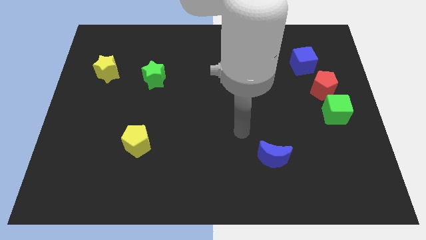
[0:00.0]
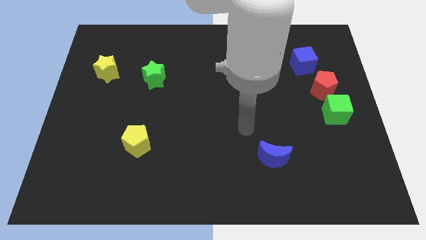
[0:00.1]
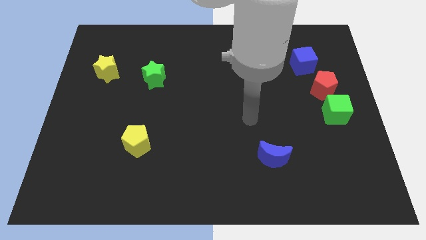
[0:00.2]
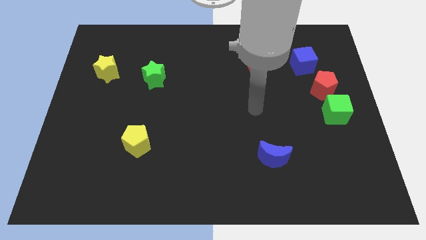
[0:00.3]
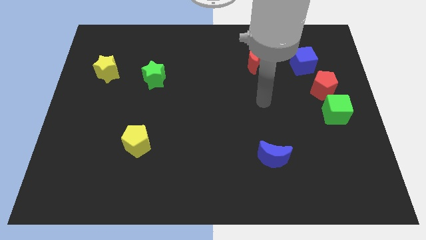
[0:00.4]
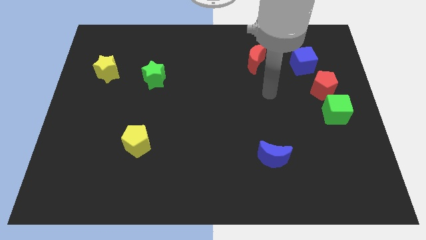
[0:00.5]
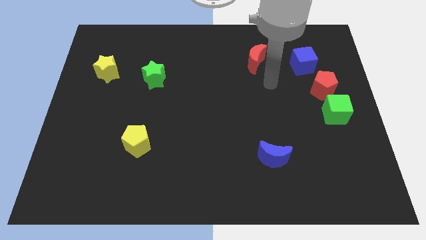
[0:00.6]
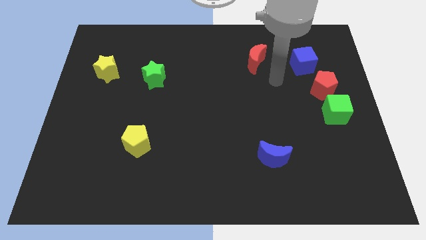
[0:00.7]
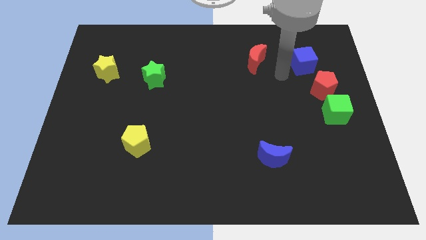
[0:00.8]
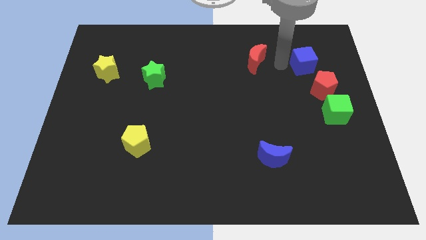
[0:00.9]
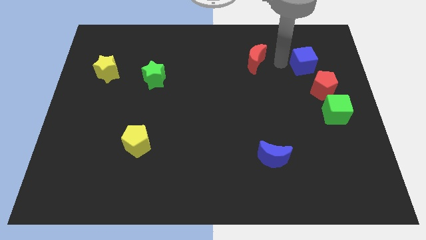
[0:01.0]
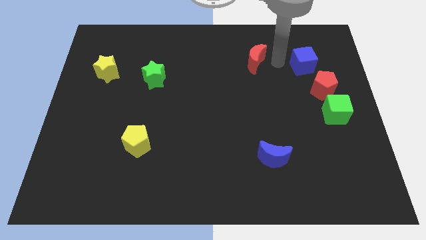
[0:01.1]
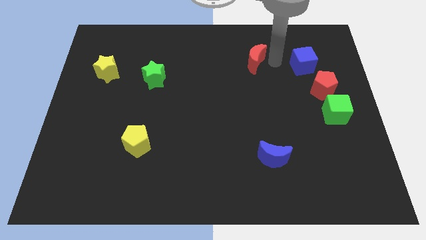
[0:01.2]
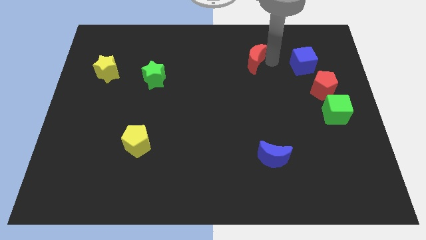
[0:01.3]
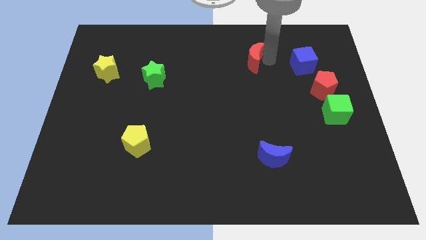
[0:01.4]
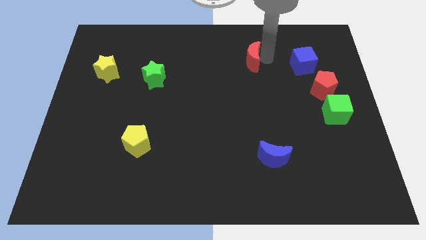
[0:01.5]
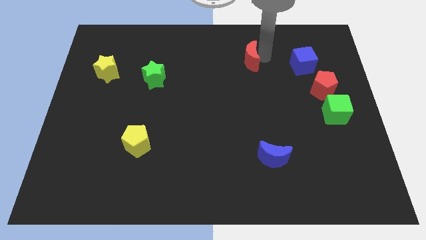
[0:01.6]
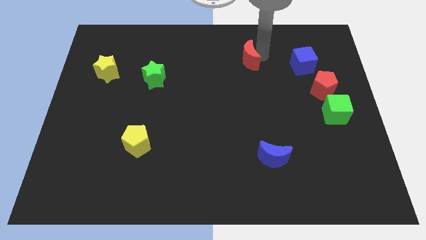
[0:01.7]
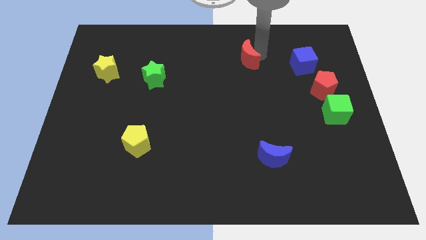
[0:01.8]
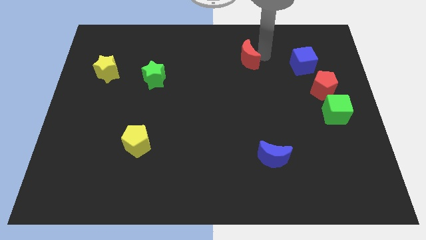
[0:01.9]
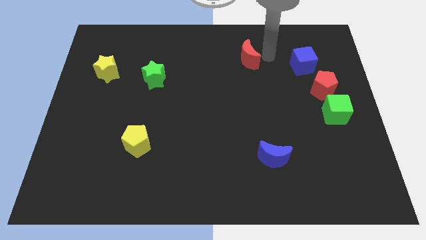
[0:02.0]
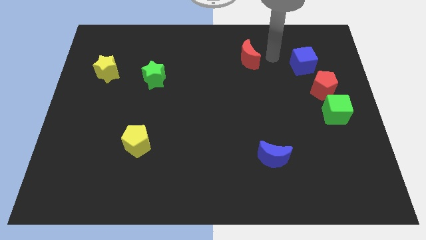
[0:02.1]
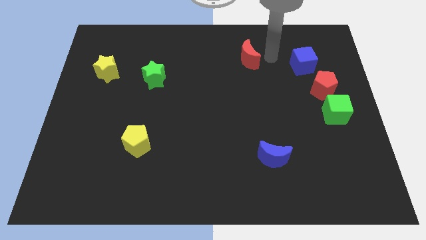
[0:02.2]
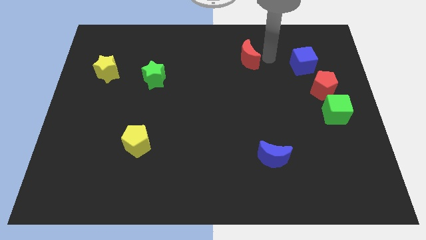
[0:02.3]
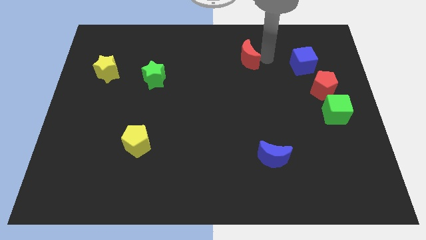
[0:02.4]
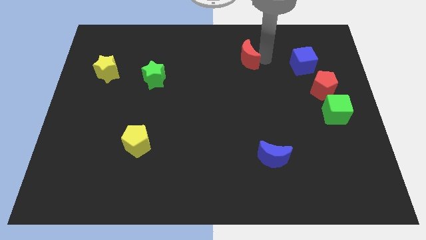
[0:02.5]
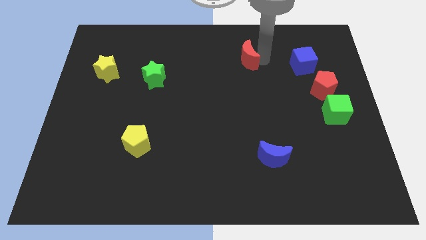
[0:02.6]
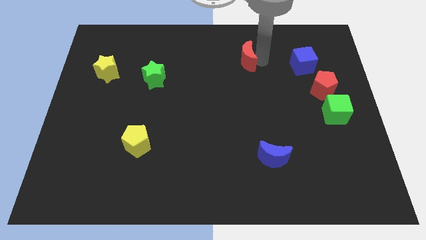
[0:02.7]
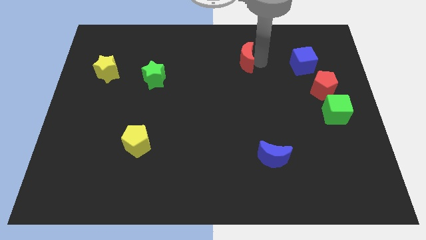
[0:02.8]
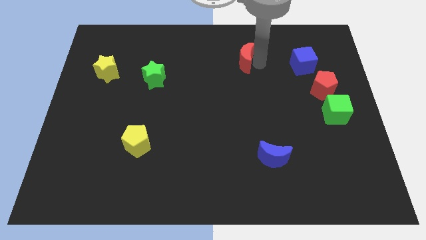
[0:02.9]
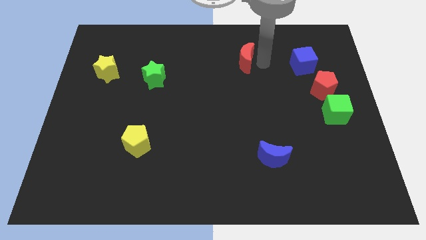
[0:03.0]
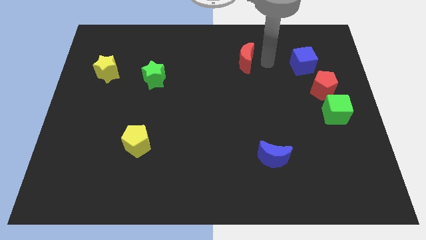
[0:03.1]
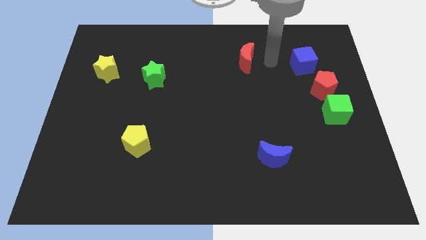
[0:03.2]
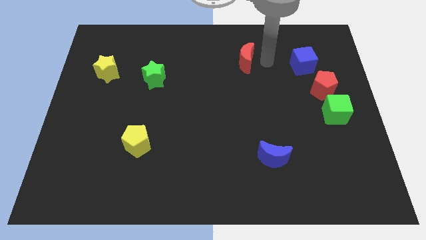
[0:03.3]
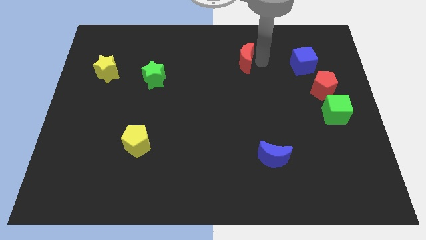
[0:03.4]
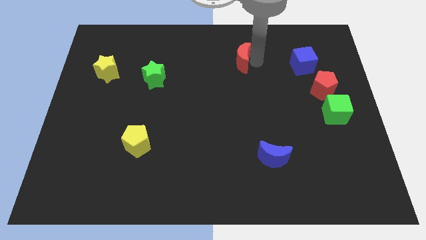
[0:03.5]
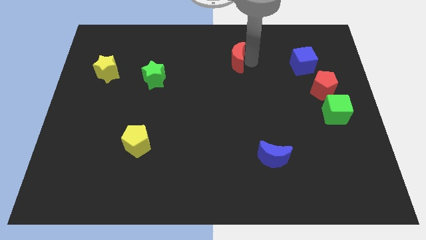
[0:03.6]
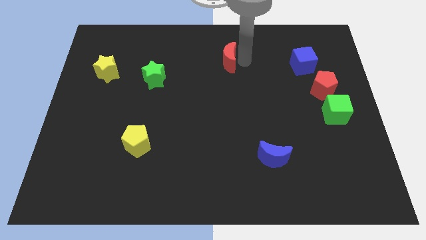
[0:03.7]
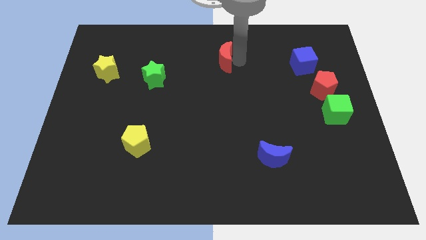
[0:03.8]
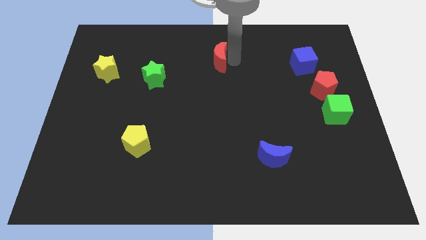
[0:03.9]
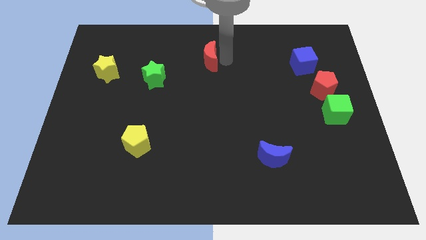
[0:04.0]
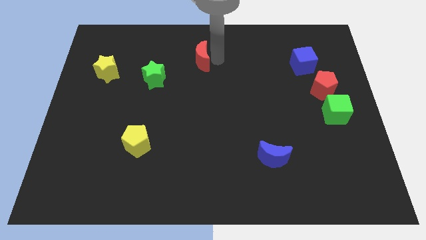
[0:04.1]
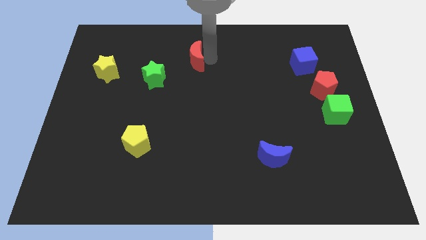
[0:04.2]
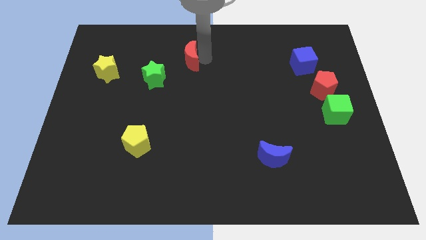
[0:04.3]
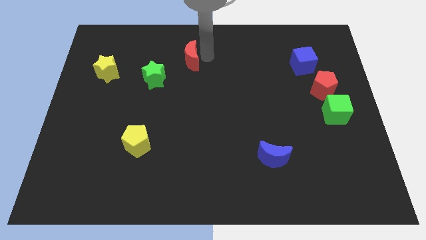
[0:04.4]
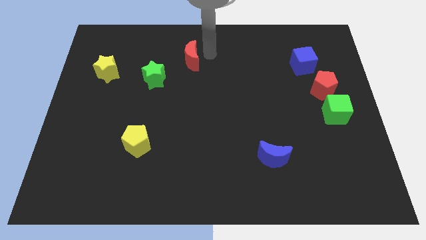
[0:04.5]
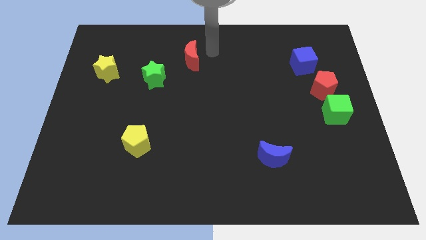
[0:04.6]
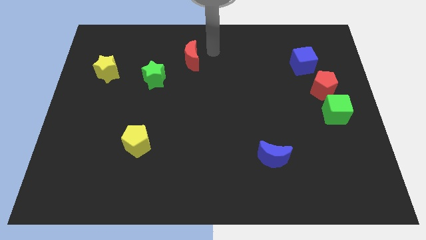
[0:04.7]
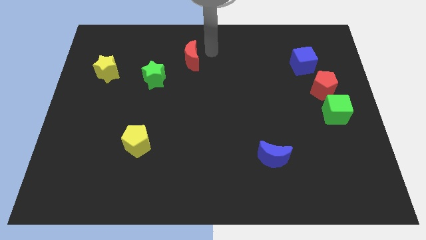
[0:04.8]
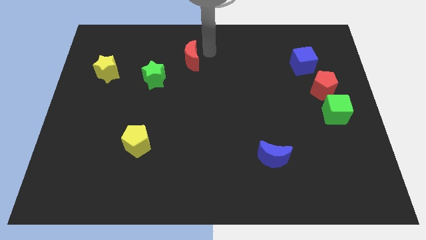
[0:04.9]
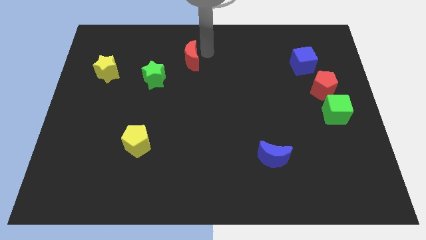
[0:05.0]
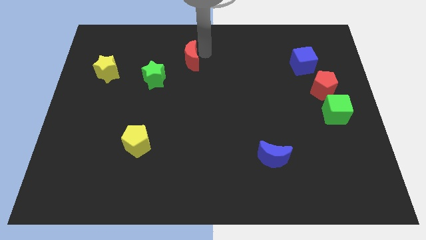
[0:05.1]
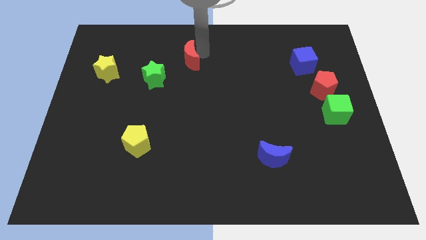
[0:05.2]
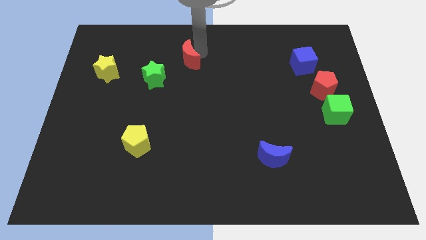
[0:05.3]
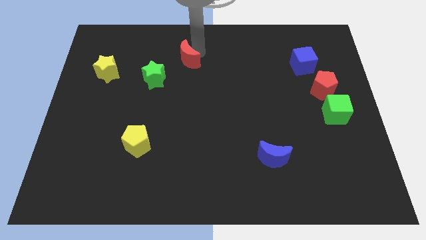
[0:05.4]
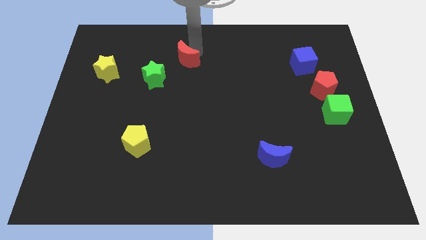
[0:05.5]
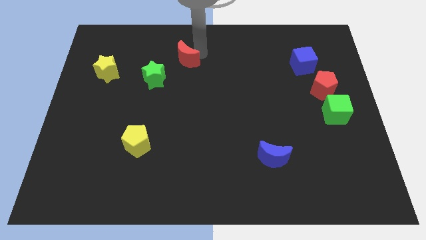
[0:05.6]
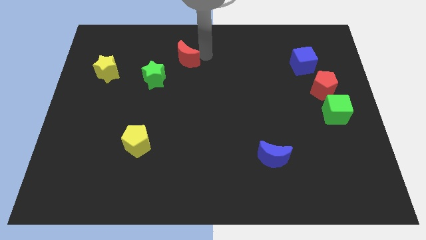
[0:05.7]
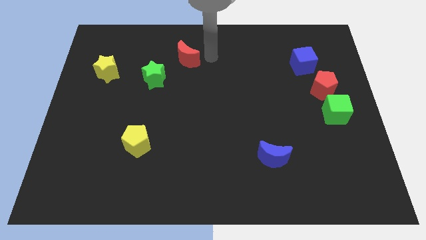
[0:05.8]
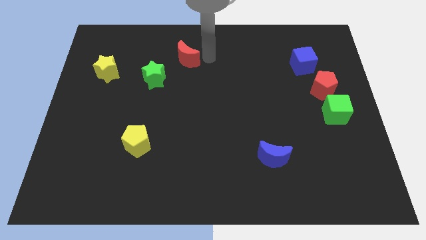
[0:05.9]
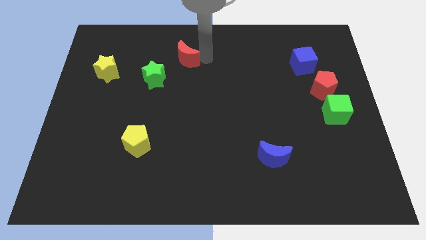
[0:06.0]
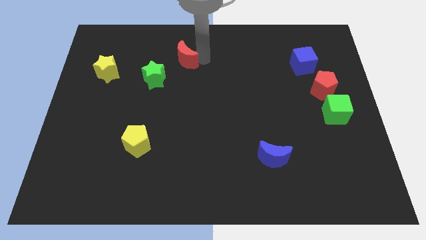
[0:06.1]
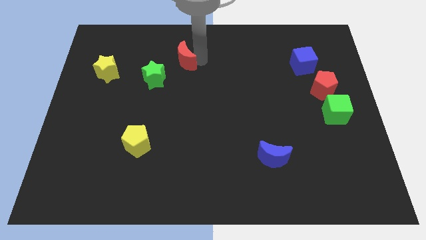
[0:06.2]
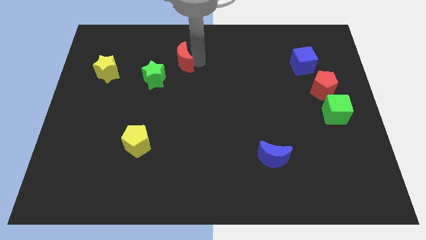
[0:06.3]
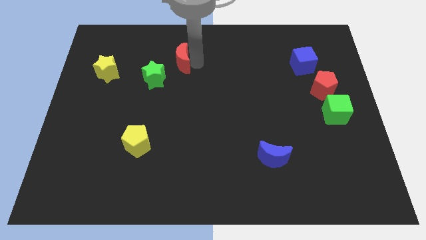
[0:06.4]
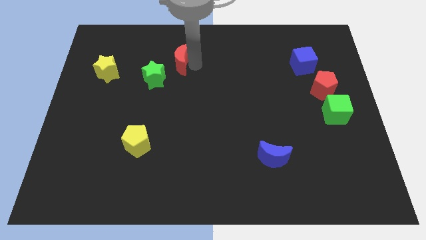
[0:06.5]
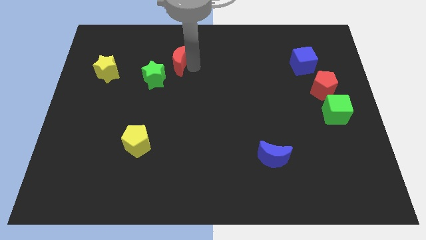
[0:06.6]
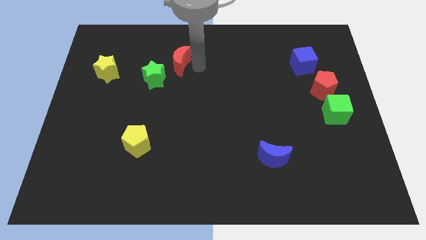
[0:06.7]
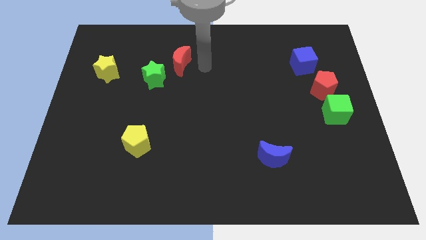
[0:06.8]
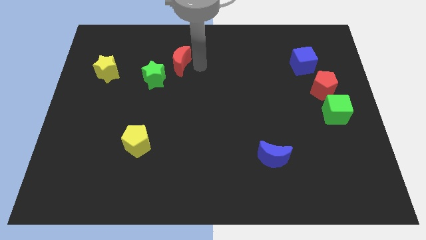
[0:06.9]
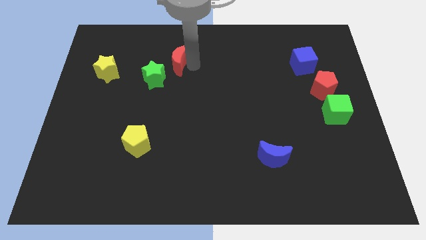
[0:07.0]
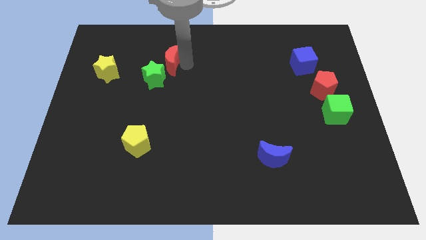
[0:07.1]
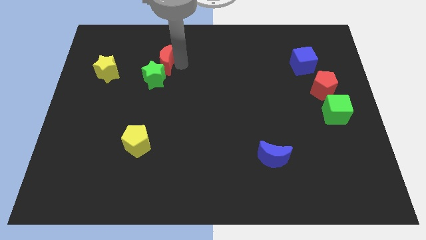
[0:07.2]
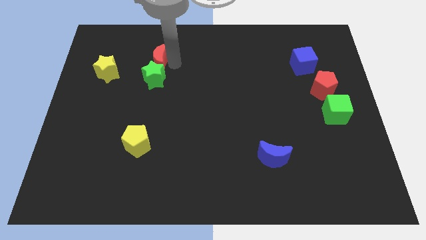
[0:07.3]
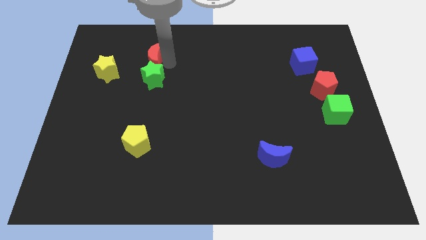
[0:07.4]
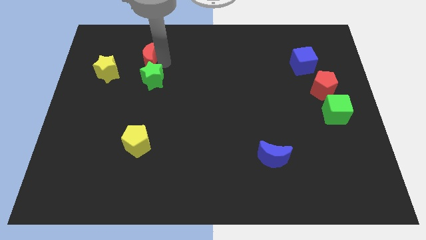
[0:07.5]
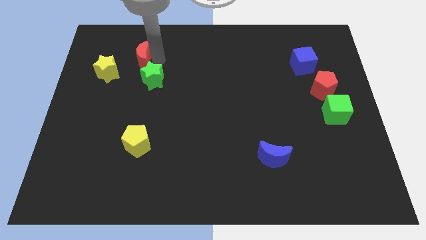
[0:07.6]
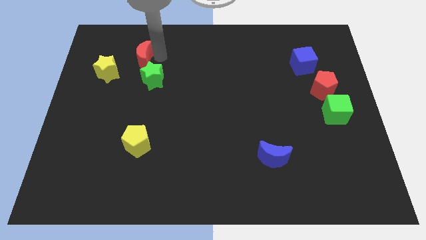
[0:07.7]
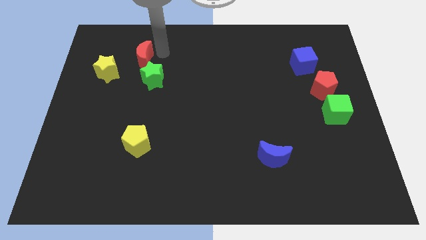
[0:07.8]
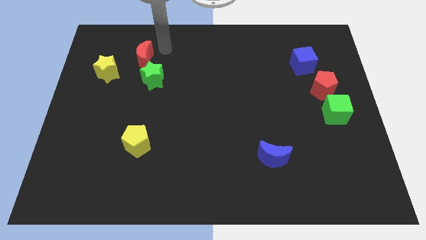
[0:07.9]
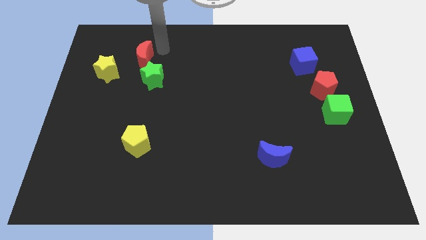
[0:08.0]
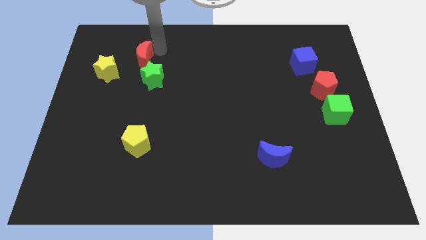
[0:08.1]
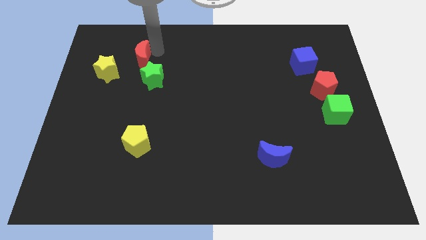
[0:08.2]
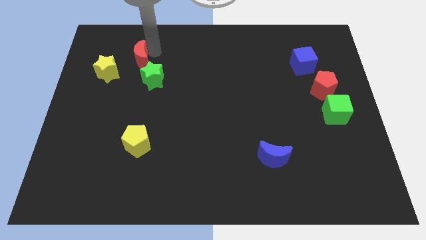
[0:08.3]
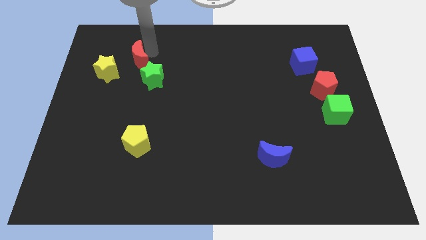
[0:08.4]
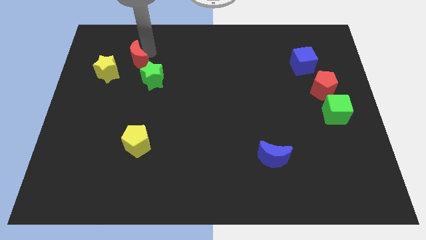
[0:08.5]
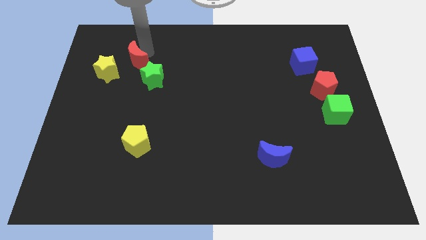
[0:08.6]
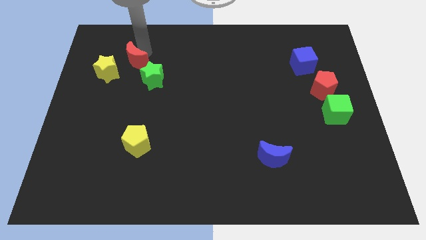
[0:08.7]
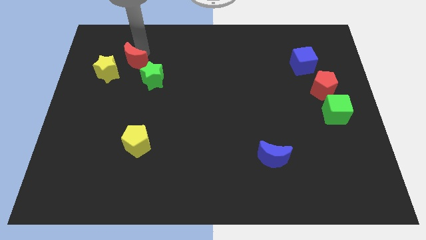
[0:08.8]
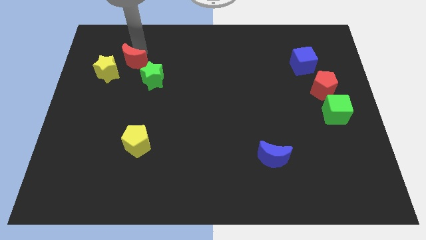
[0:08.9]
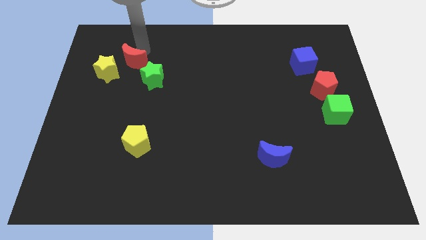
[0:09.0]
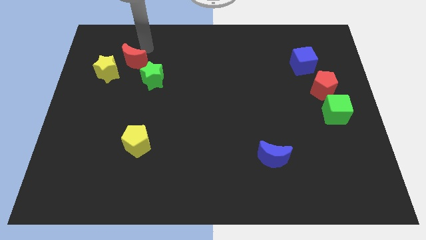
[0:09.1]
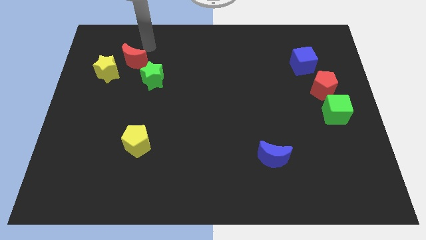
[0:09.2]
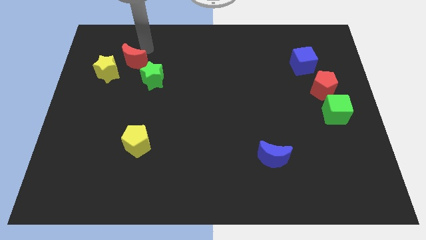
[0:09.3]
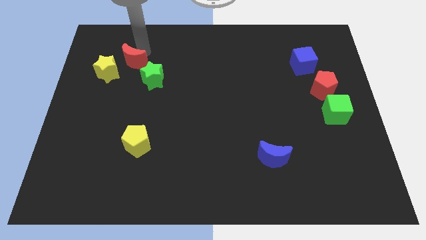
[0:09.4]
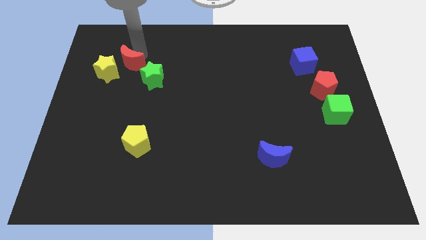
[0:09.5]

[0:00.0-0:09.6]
put the red moon next to the yellow star
